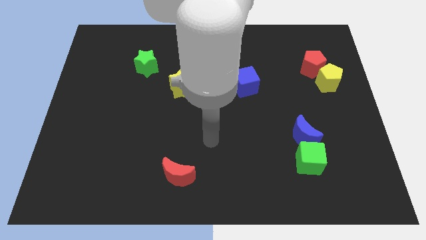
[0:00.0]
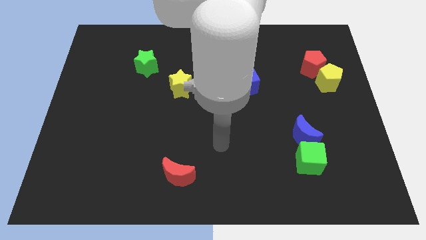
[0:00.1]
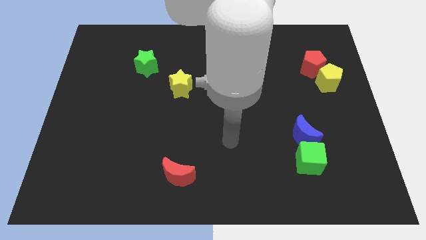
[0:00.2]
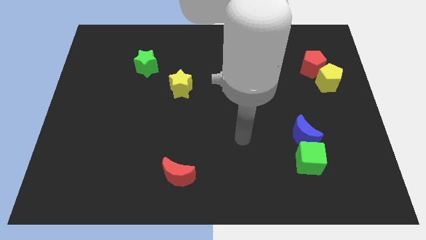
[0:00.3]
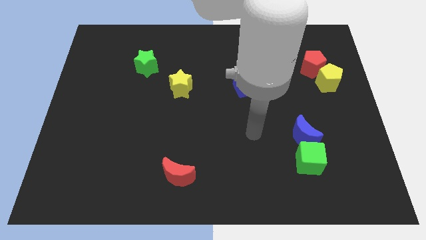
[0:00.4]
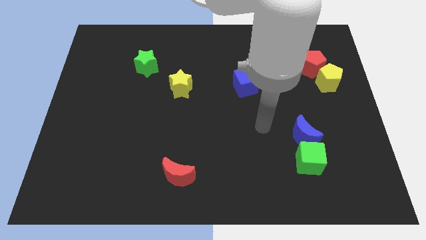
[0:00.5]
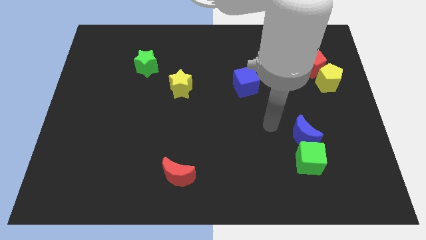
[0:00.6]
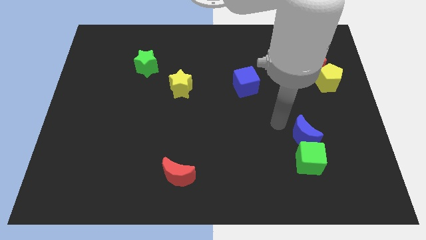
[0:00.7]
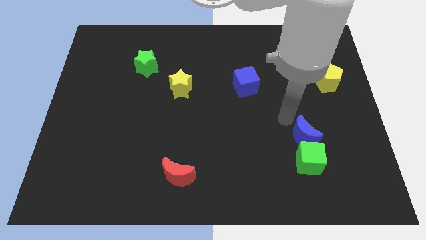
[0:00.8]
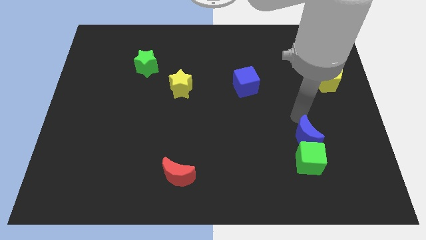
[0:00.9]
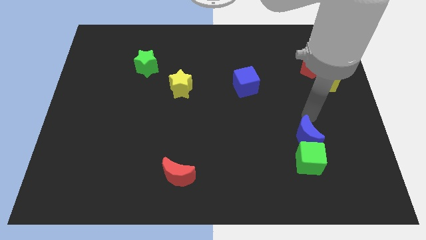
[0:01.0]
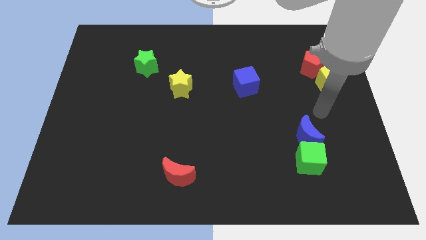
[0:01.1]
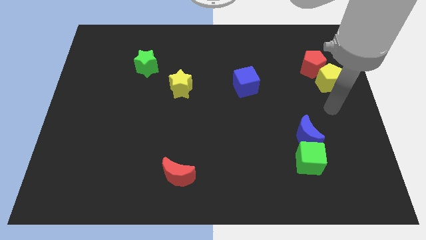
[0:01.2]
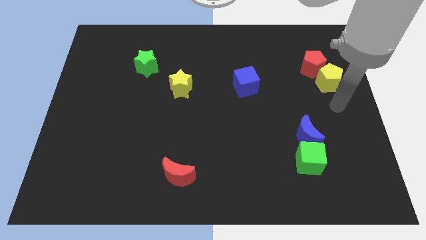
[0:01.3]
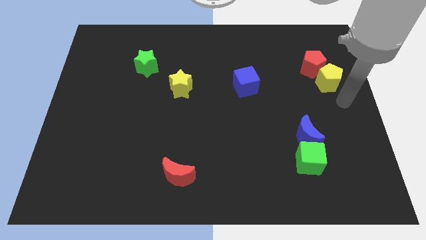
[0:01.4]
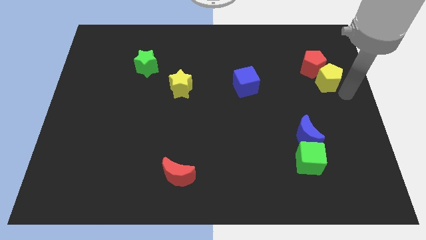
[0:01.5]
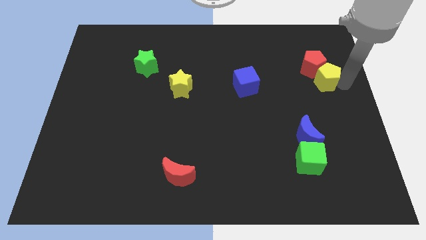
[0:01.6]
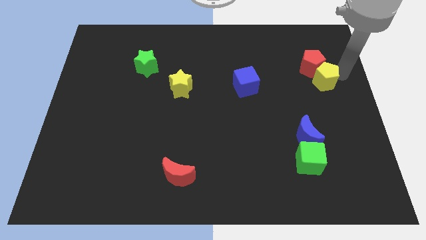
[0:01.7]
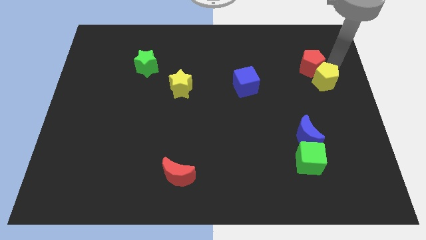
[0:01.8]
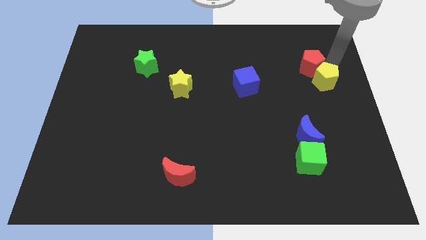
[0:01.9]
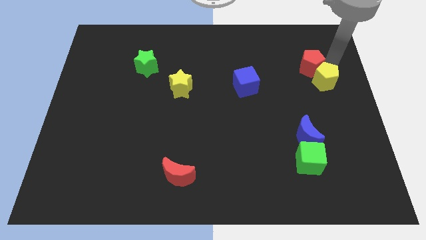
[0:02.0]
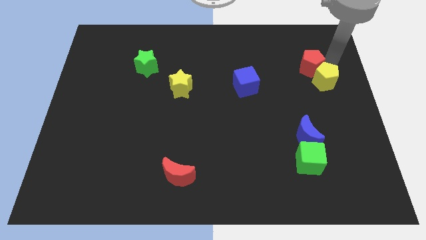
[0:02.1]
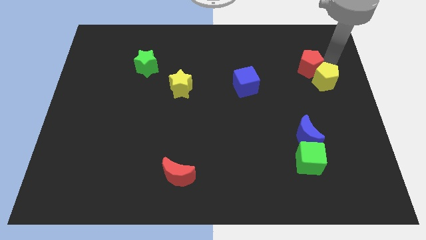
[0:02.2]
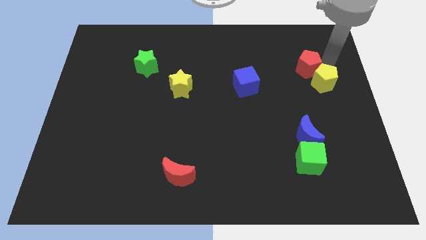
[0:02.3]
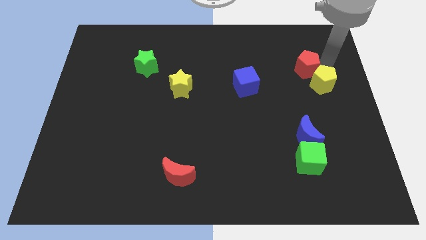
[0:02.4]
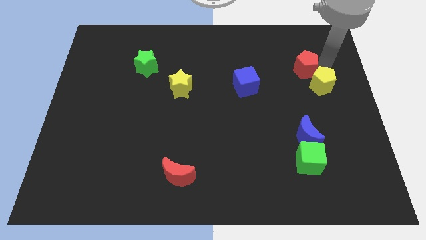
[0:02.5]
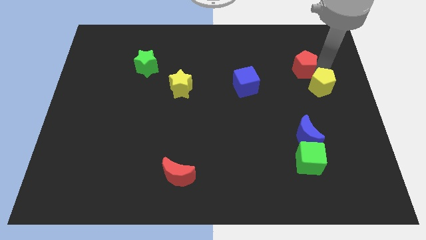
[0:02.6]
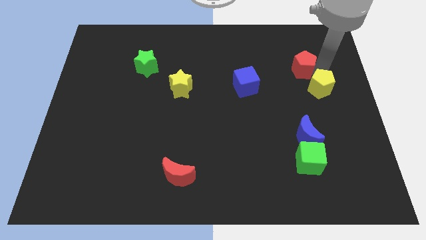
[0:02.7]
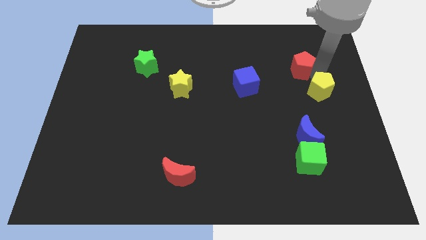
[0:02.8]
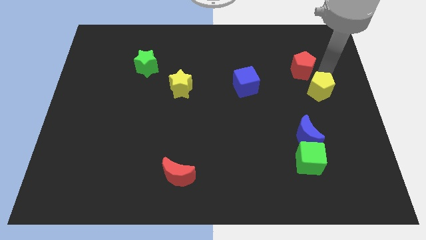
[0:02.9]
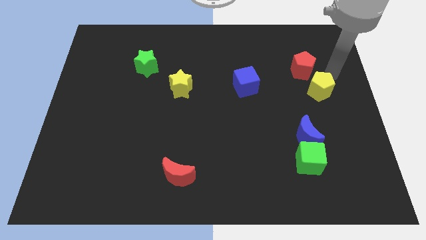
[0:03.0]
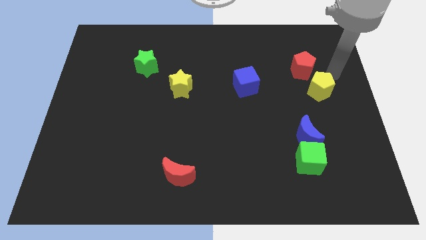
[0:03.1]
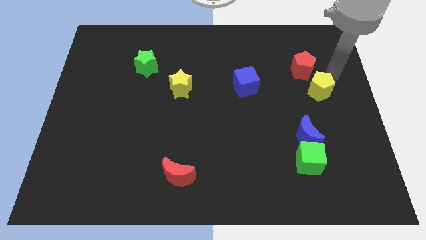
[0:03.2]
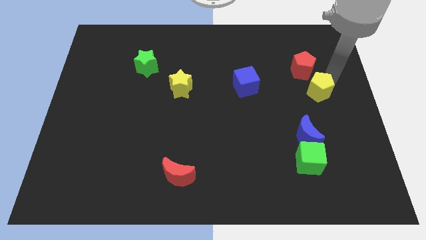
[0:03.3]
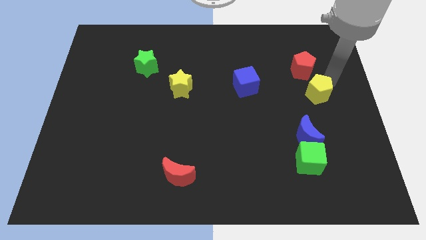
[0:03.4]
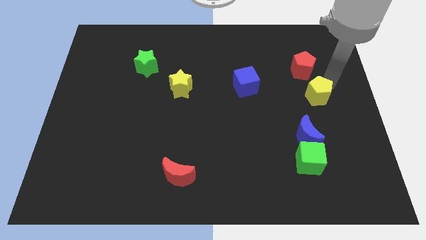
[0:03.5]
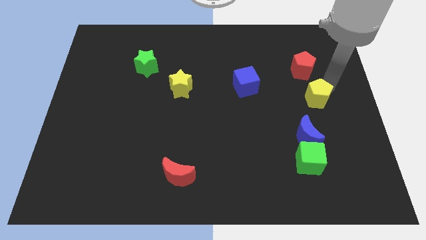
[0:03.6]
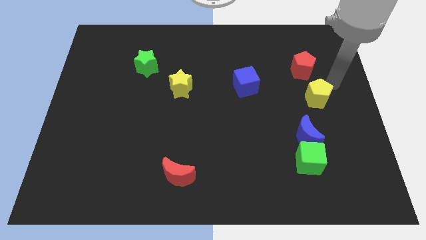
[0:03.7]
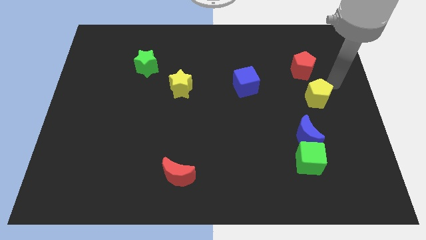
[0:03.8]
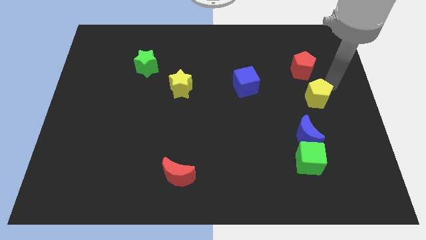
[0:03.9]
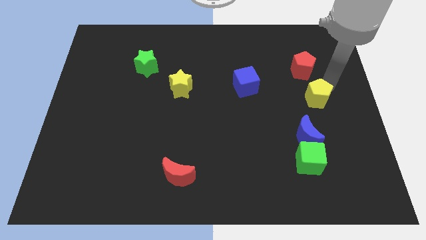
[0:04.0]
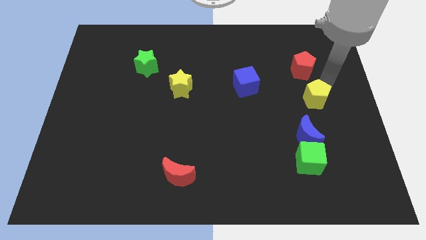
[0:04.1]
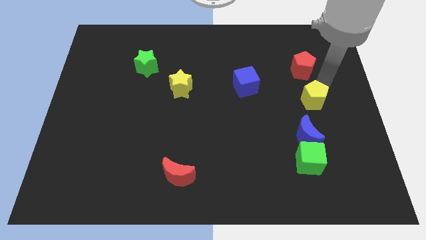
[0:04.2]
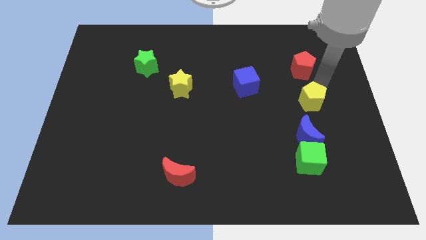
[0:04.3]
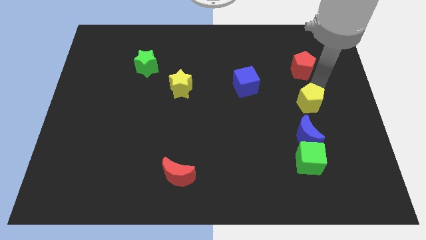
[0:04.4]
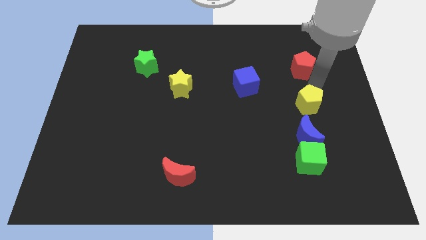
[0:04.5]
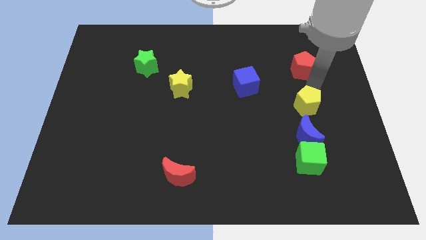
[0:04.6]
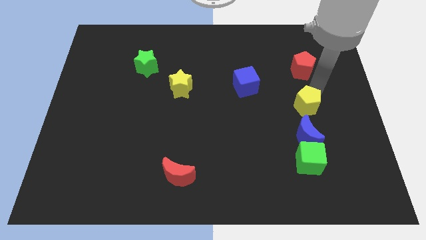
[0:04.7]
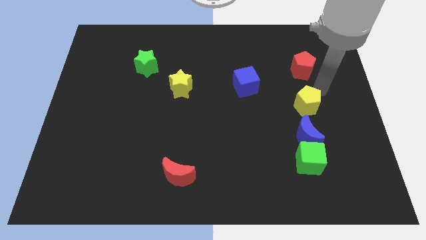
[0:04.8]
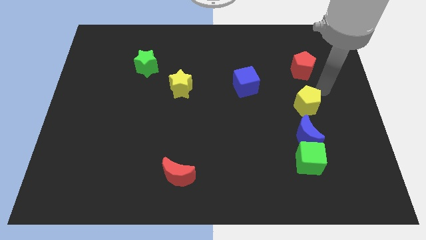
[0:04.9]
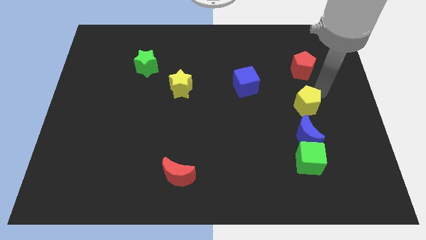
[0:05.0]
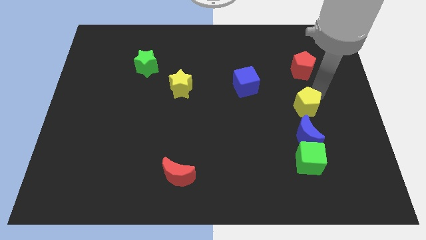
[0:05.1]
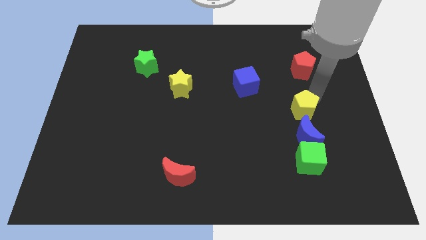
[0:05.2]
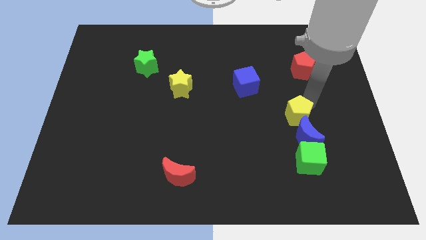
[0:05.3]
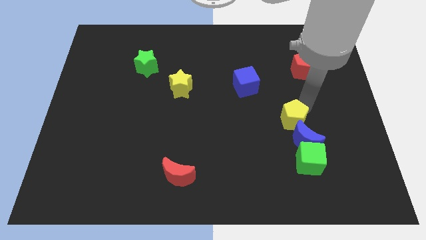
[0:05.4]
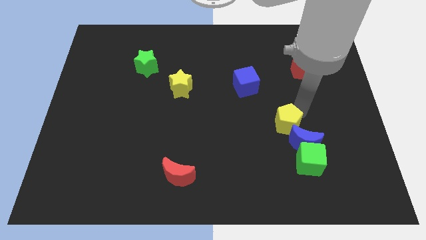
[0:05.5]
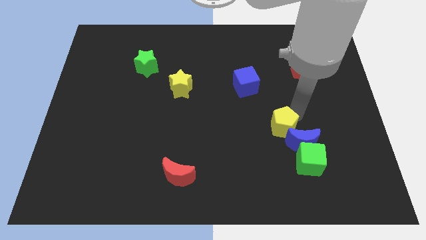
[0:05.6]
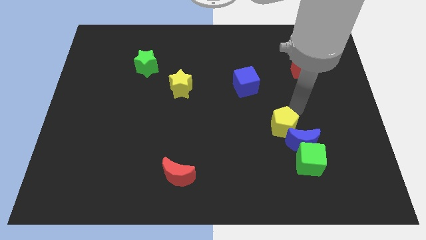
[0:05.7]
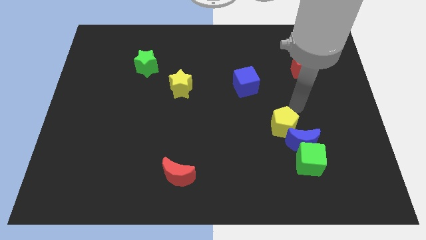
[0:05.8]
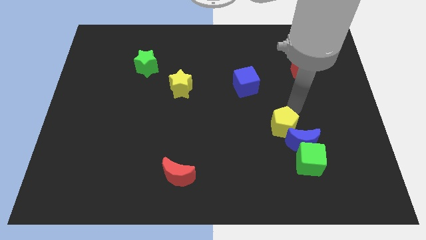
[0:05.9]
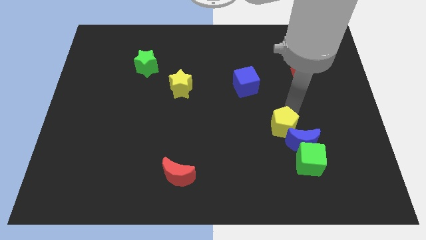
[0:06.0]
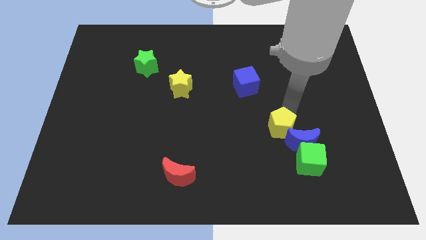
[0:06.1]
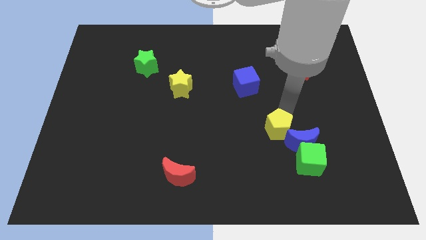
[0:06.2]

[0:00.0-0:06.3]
slide the yellow pentagon downwards and then to the left

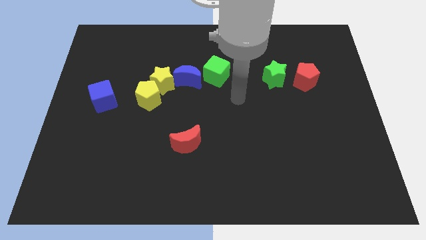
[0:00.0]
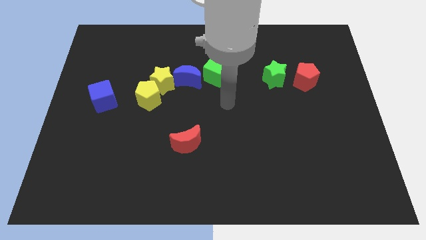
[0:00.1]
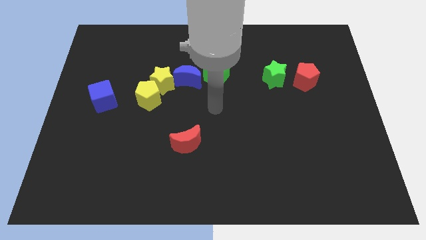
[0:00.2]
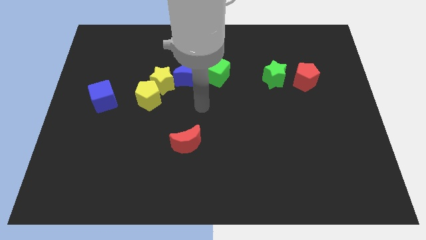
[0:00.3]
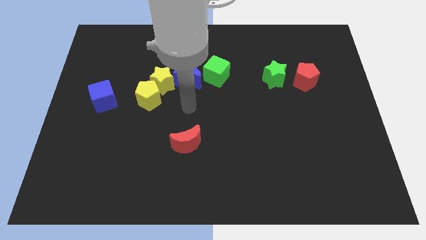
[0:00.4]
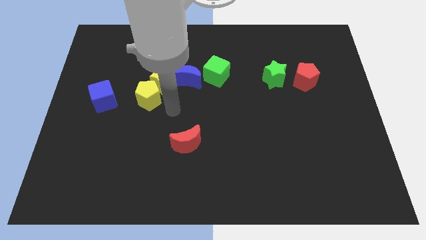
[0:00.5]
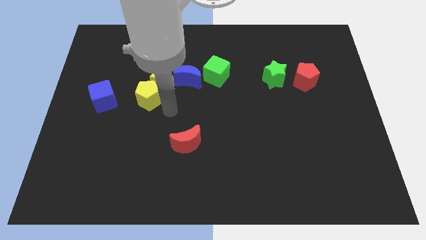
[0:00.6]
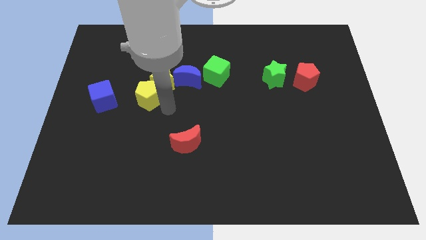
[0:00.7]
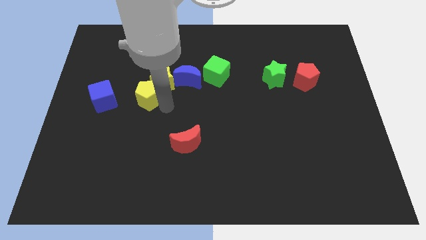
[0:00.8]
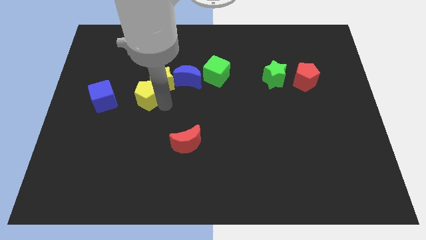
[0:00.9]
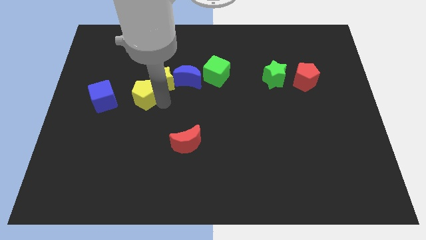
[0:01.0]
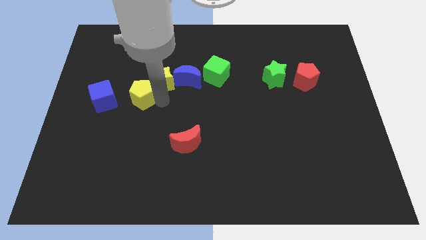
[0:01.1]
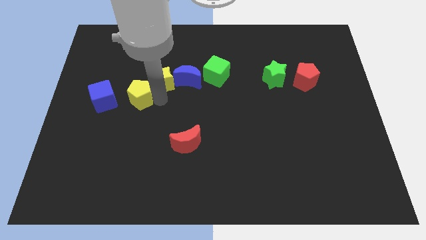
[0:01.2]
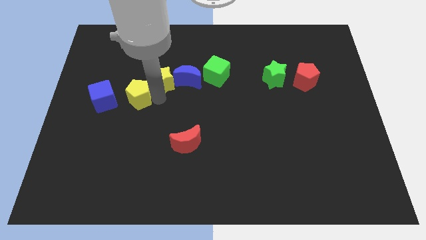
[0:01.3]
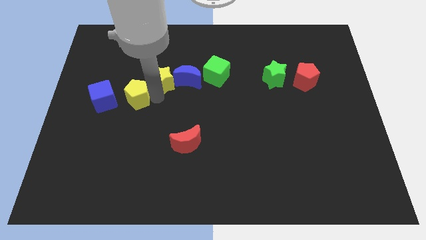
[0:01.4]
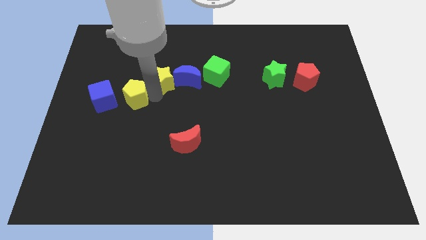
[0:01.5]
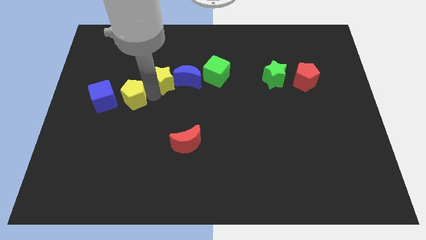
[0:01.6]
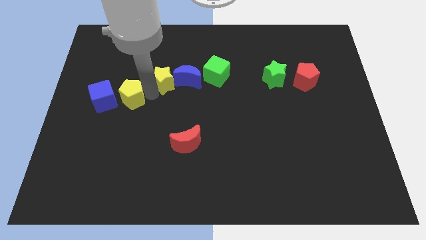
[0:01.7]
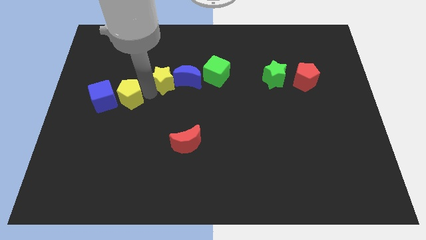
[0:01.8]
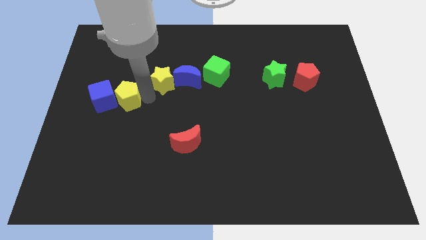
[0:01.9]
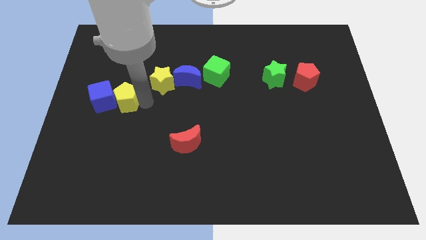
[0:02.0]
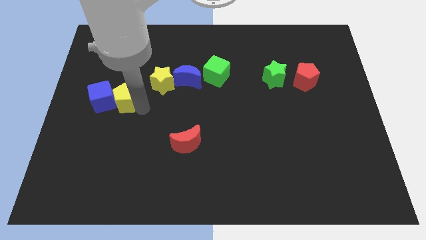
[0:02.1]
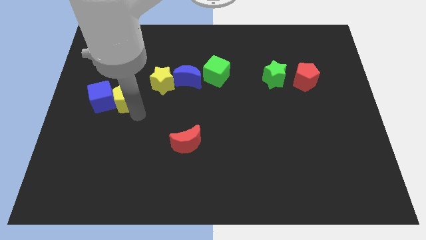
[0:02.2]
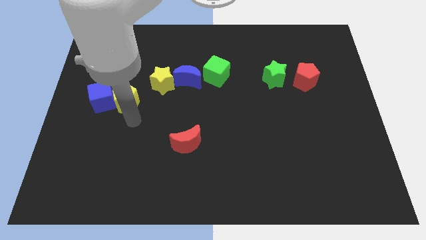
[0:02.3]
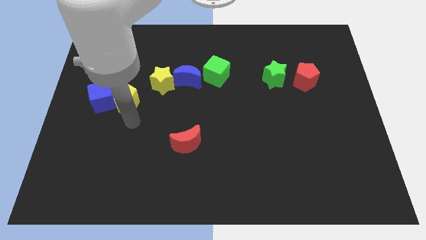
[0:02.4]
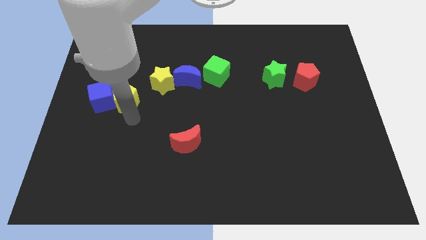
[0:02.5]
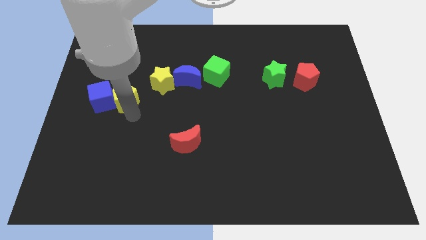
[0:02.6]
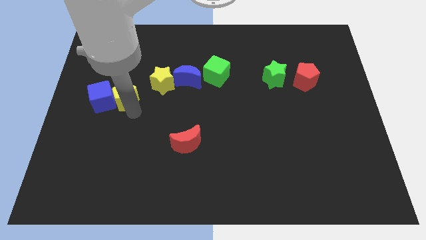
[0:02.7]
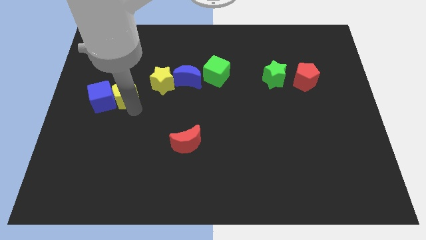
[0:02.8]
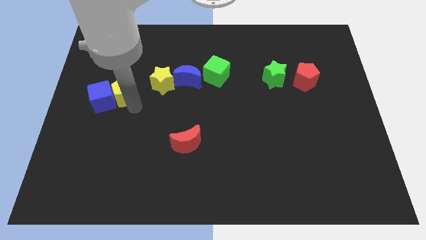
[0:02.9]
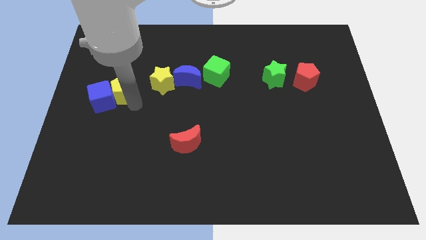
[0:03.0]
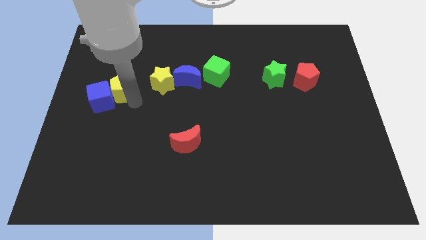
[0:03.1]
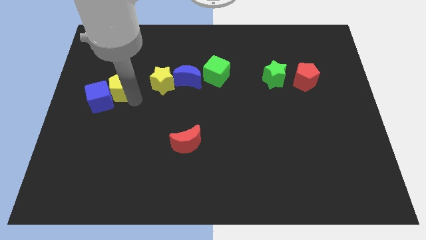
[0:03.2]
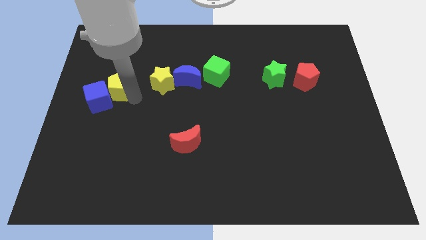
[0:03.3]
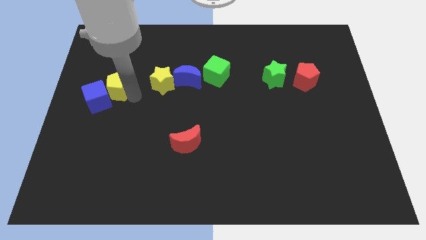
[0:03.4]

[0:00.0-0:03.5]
slightly push the yellow pentagon up and to the left diagonally
